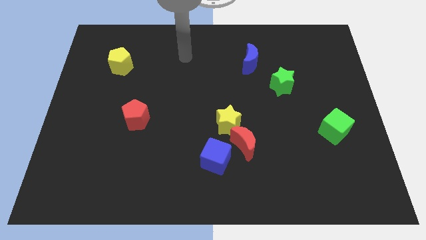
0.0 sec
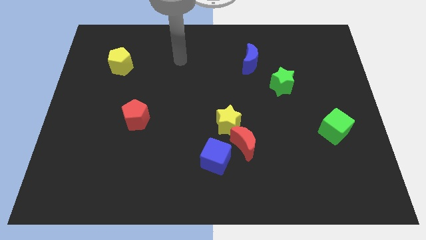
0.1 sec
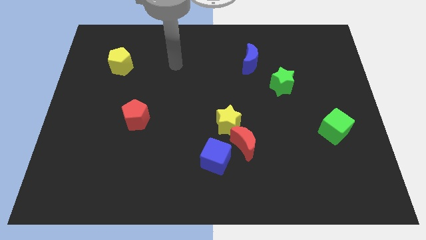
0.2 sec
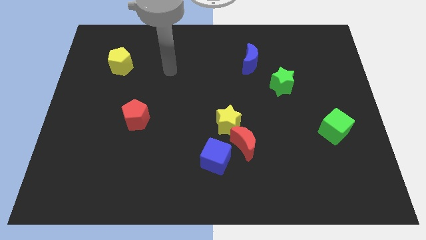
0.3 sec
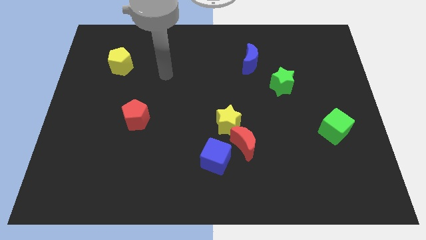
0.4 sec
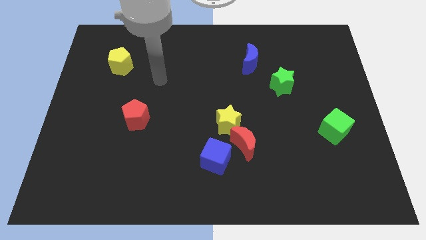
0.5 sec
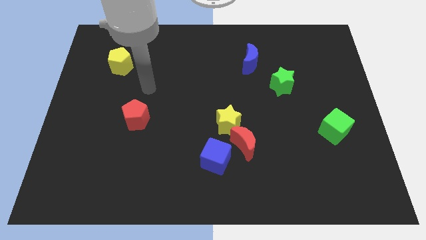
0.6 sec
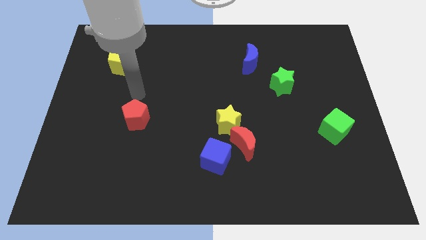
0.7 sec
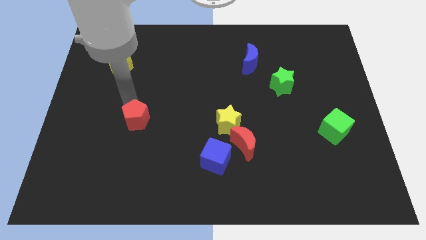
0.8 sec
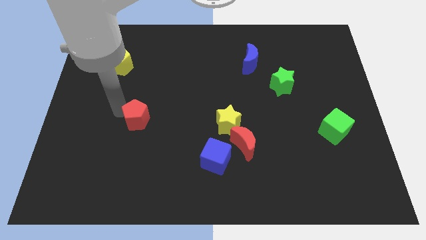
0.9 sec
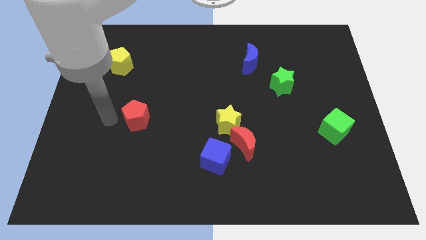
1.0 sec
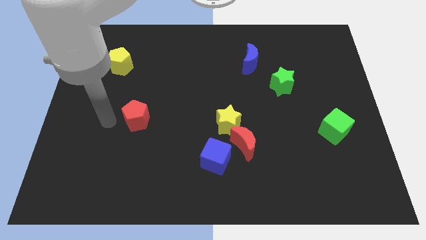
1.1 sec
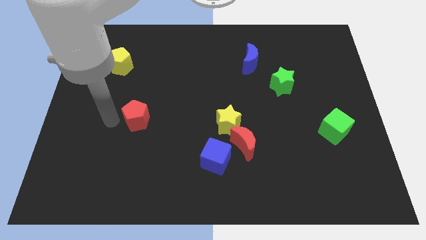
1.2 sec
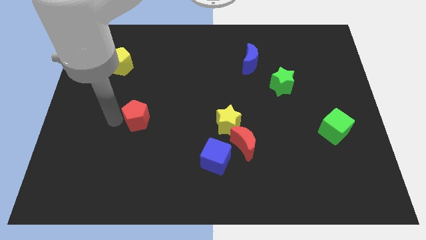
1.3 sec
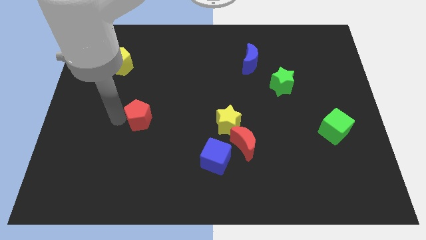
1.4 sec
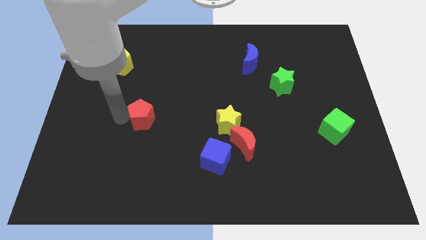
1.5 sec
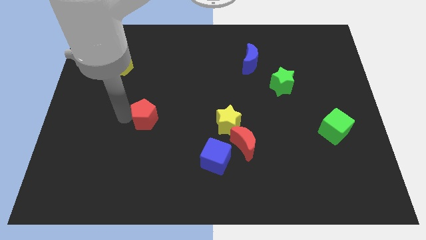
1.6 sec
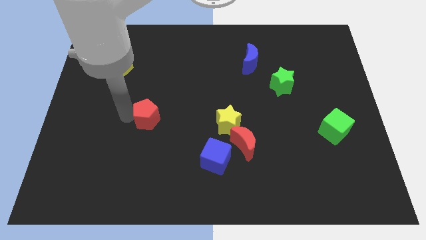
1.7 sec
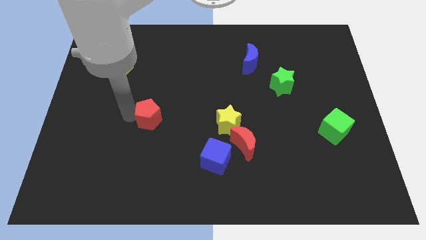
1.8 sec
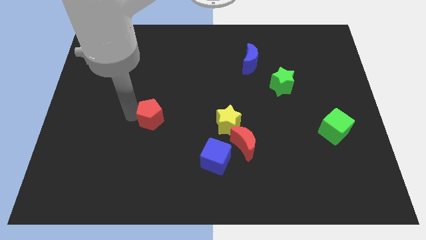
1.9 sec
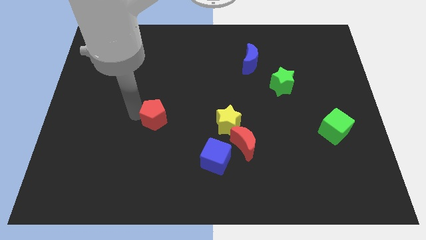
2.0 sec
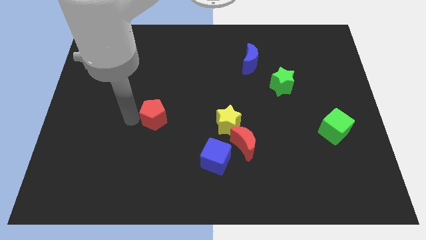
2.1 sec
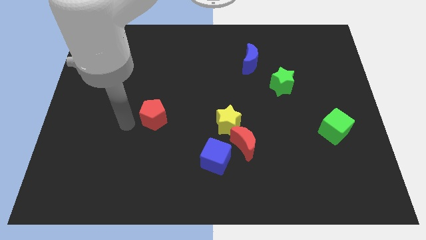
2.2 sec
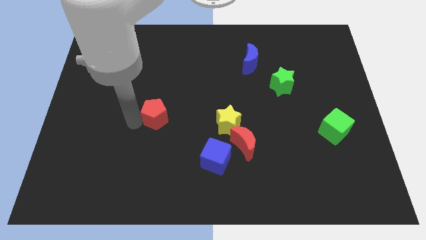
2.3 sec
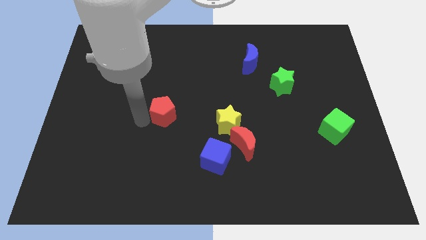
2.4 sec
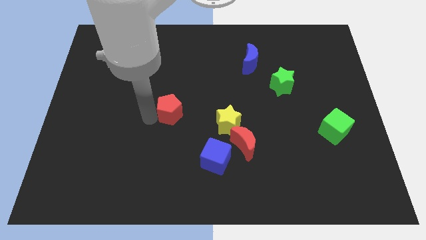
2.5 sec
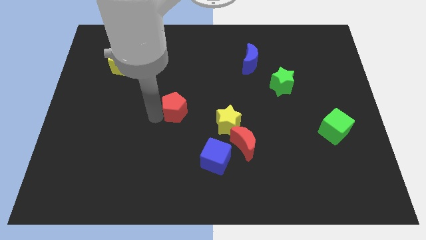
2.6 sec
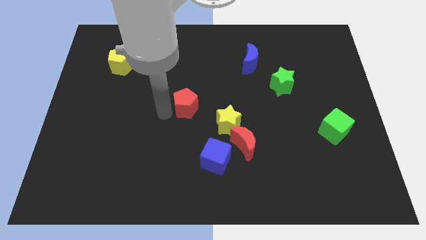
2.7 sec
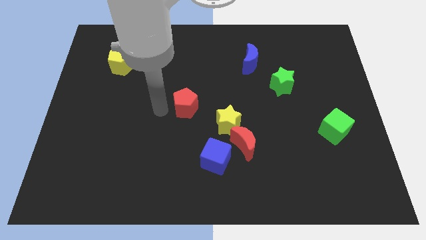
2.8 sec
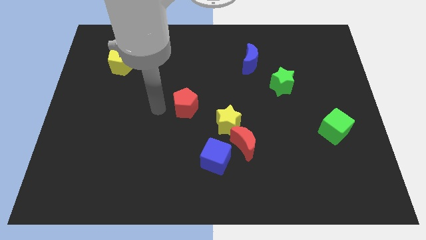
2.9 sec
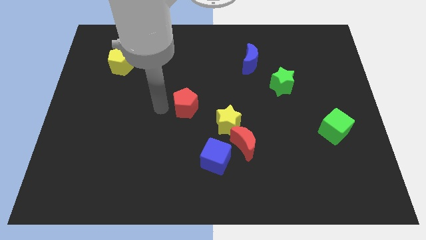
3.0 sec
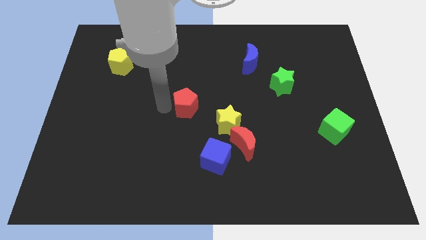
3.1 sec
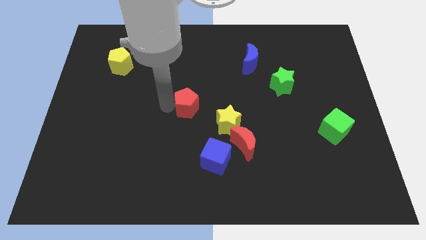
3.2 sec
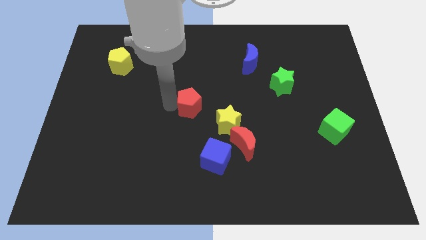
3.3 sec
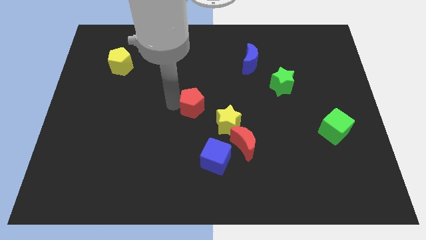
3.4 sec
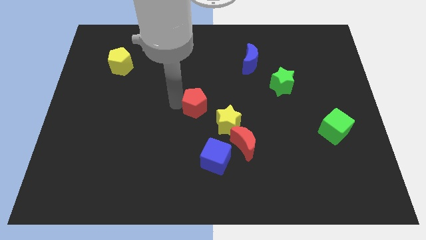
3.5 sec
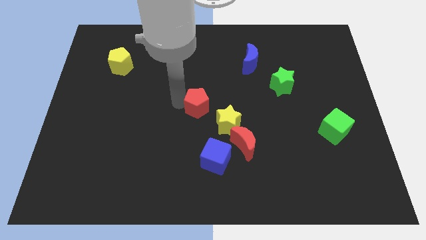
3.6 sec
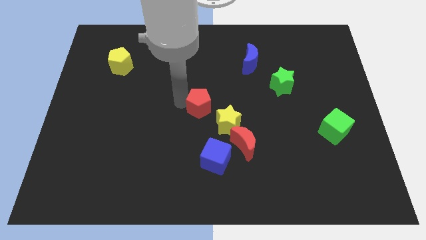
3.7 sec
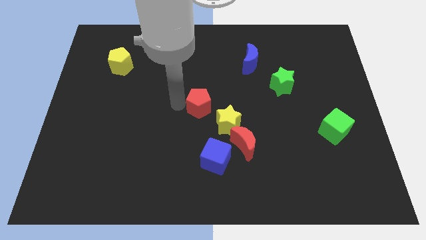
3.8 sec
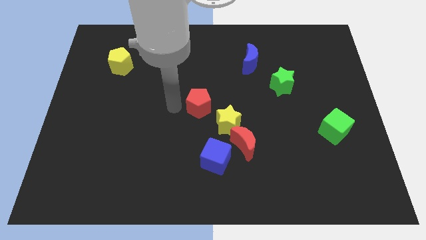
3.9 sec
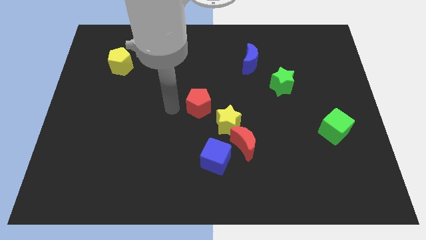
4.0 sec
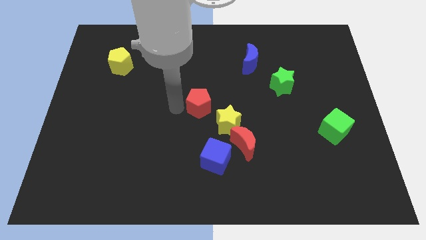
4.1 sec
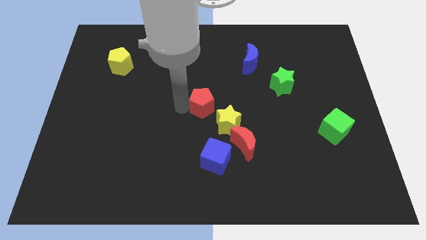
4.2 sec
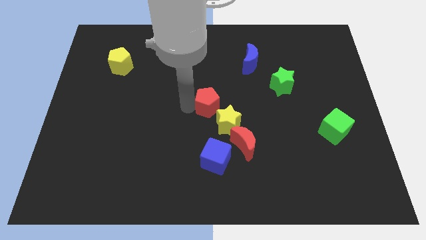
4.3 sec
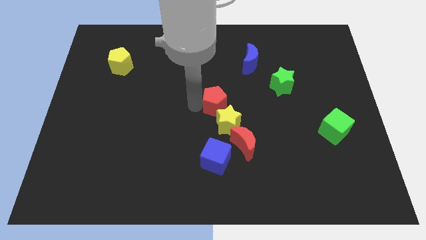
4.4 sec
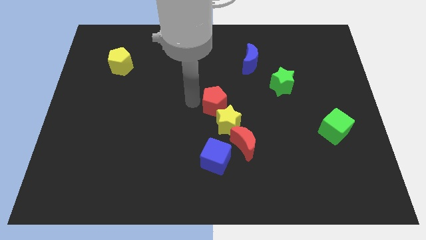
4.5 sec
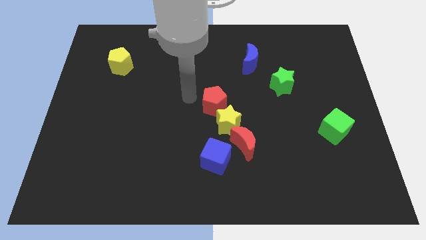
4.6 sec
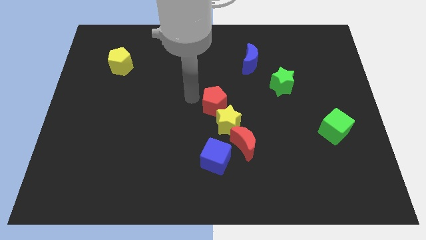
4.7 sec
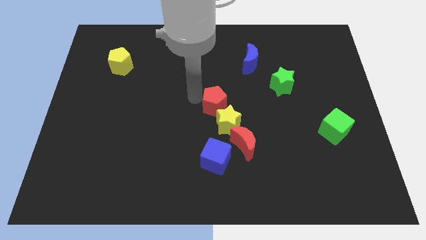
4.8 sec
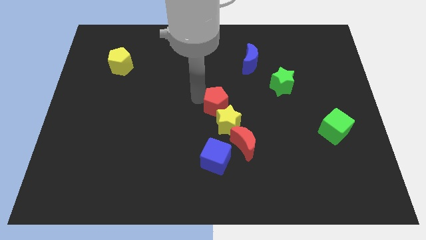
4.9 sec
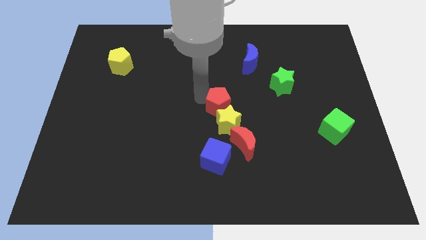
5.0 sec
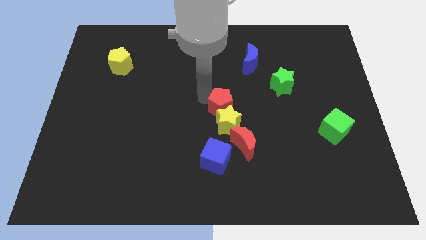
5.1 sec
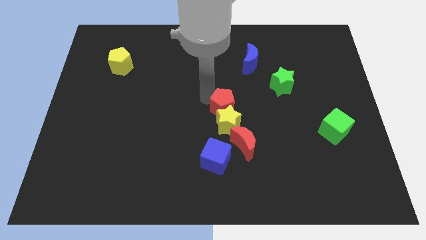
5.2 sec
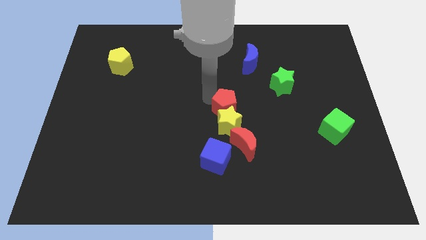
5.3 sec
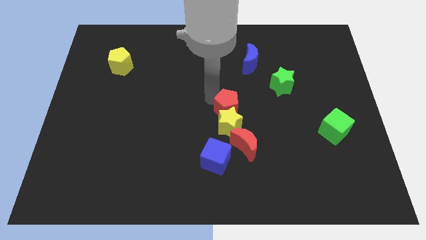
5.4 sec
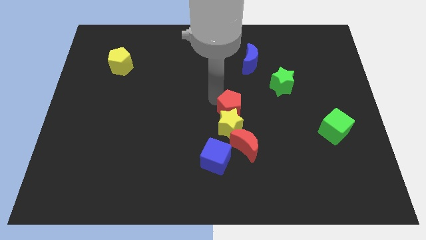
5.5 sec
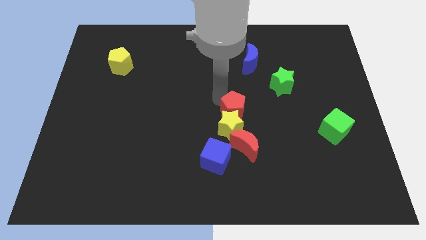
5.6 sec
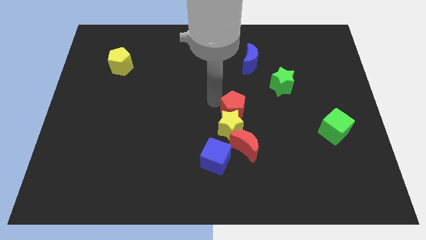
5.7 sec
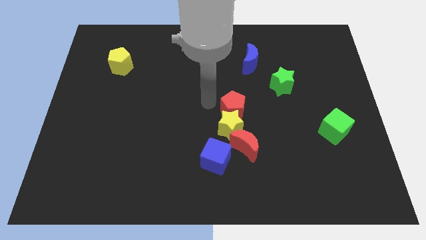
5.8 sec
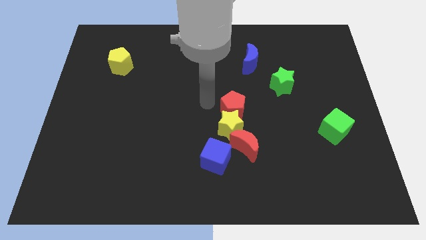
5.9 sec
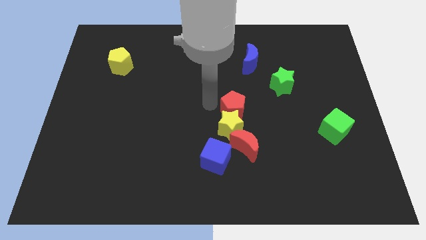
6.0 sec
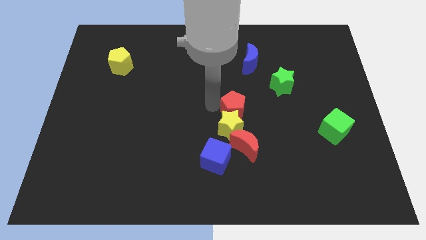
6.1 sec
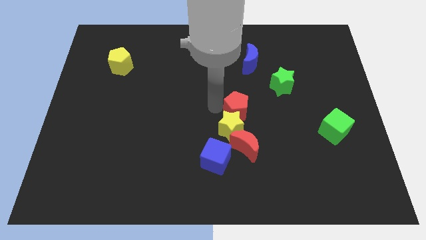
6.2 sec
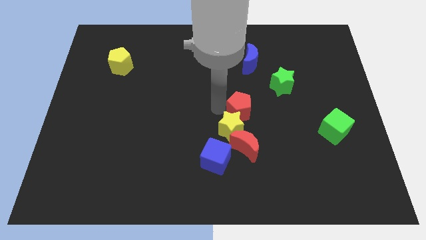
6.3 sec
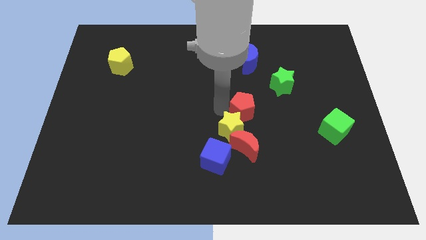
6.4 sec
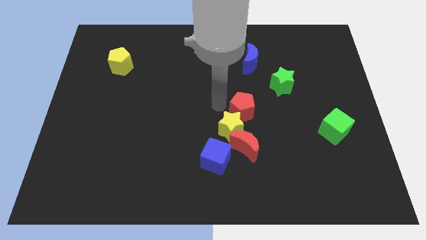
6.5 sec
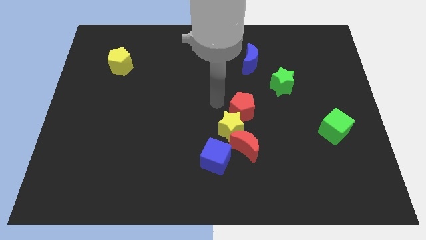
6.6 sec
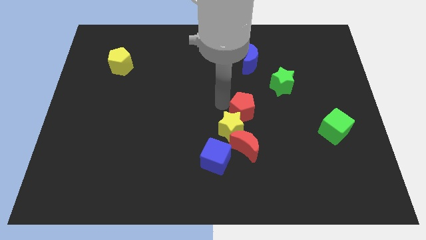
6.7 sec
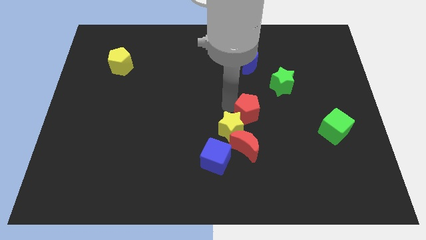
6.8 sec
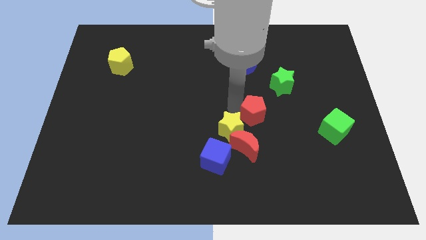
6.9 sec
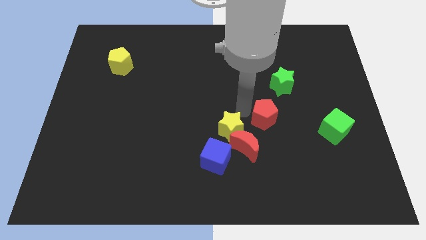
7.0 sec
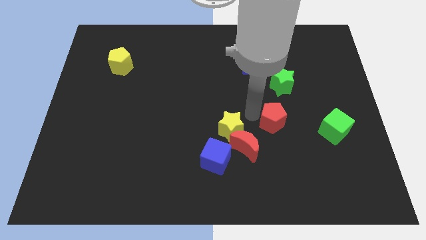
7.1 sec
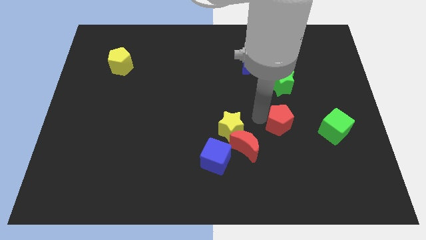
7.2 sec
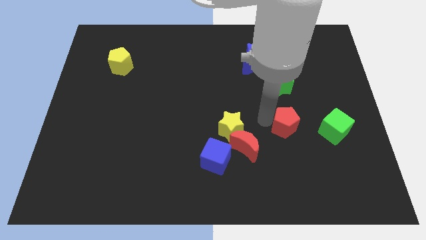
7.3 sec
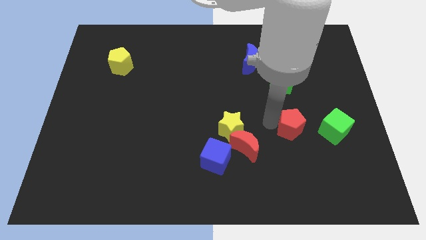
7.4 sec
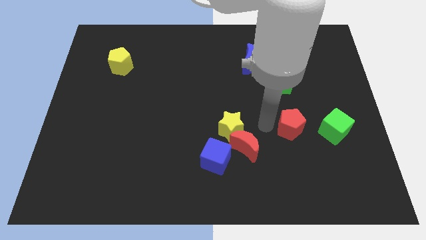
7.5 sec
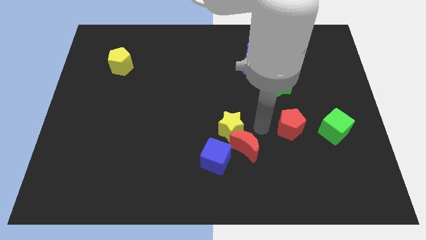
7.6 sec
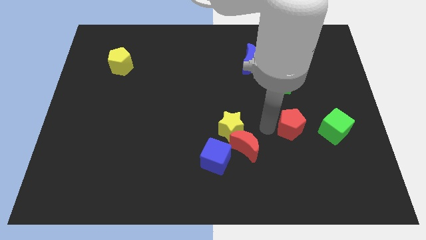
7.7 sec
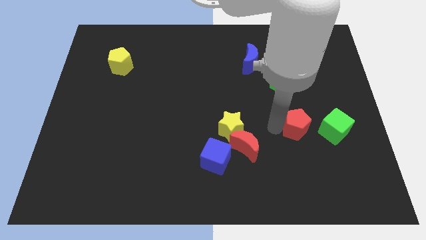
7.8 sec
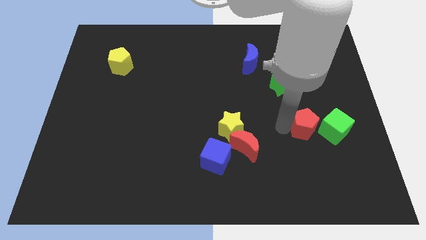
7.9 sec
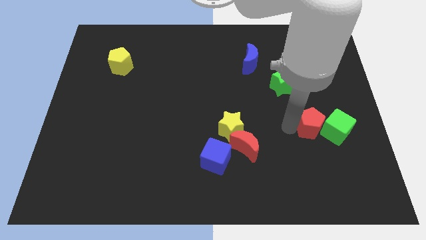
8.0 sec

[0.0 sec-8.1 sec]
push the red pentagon next to the green cube
